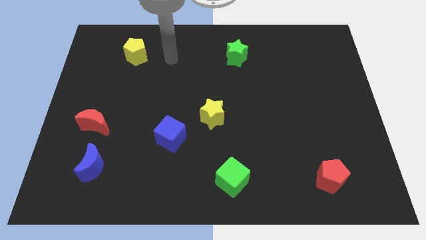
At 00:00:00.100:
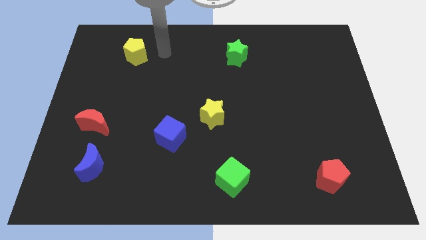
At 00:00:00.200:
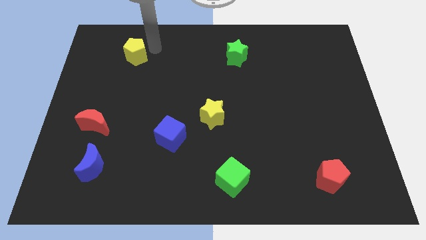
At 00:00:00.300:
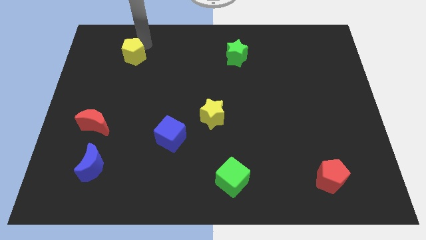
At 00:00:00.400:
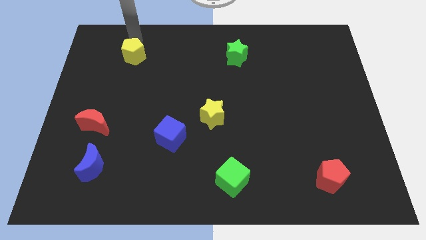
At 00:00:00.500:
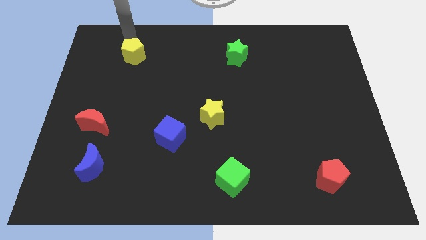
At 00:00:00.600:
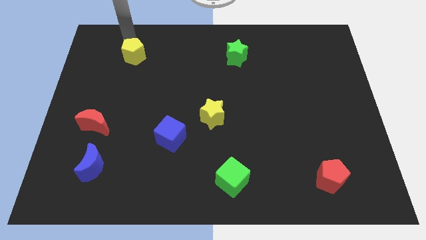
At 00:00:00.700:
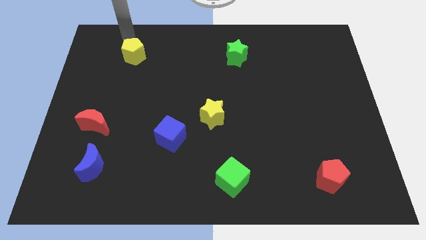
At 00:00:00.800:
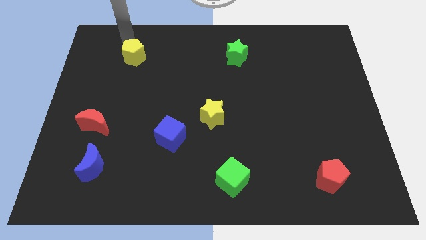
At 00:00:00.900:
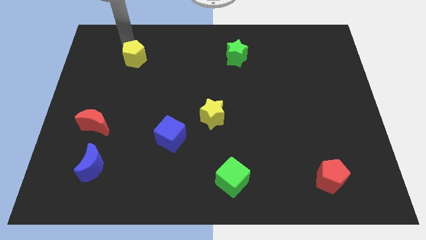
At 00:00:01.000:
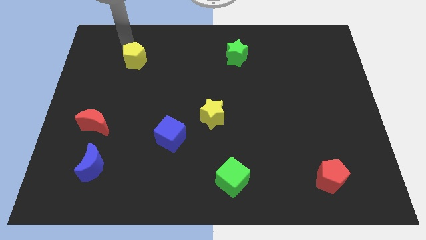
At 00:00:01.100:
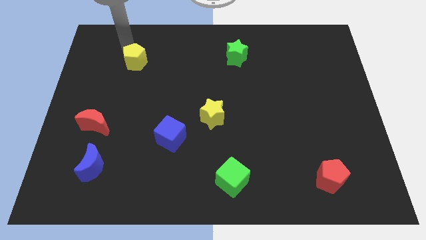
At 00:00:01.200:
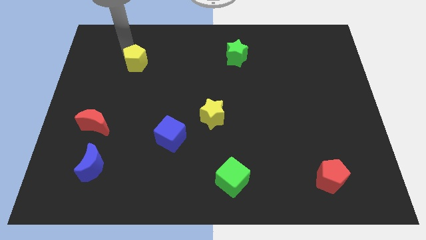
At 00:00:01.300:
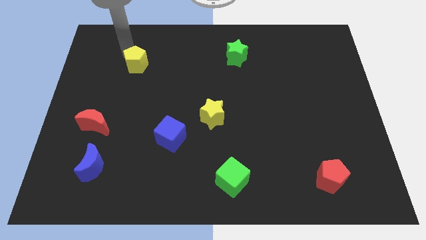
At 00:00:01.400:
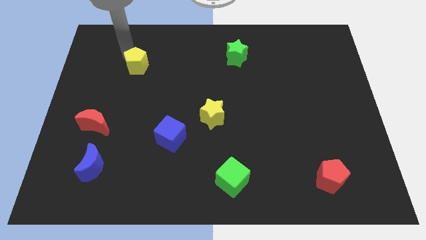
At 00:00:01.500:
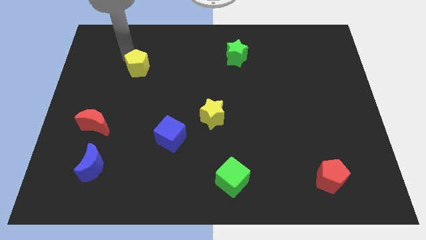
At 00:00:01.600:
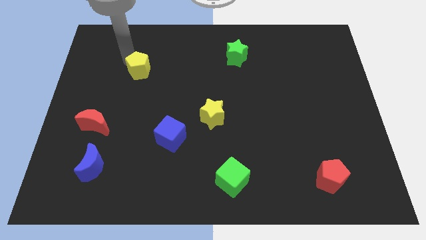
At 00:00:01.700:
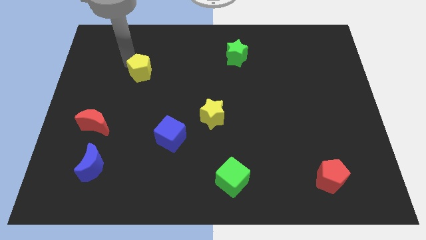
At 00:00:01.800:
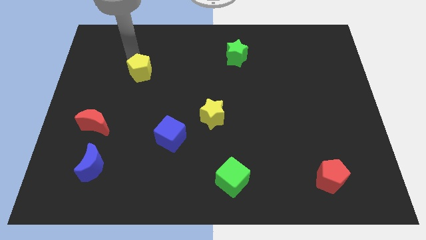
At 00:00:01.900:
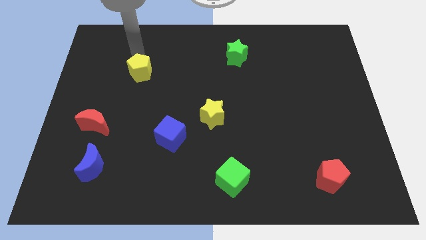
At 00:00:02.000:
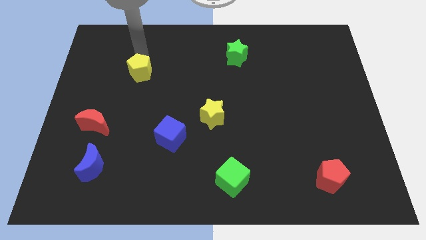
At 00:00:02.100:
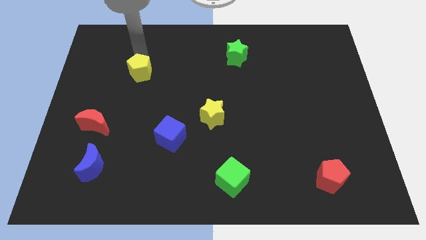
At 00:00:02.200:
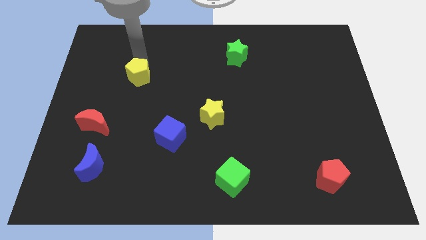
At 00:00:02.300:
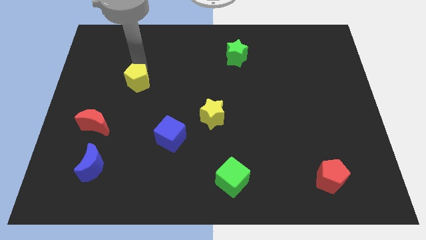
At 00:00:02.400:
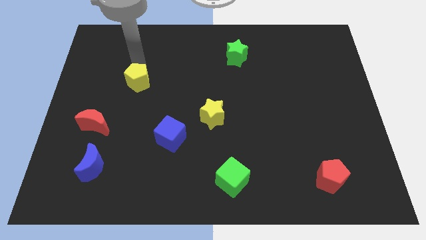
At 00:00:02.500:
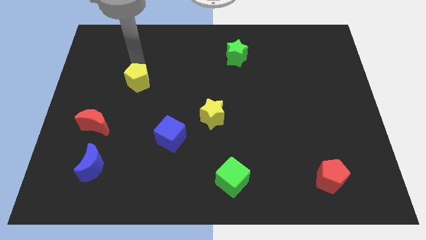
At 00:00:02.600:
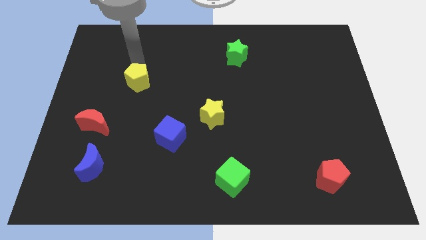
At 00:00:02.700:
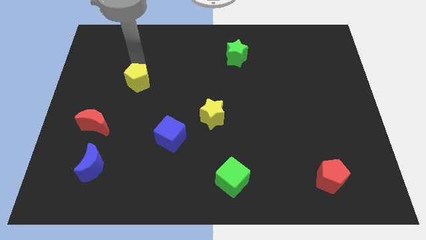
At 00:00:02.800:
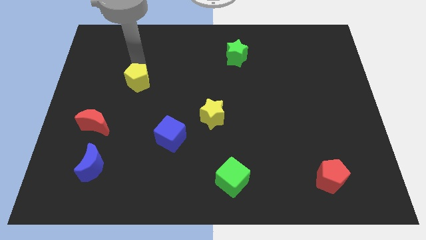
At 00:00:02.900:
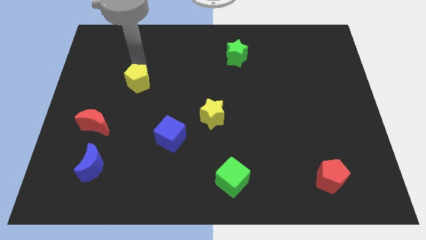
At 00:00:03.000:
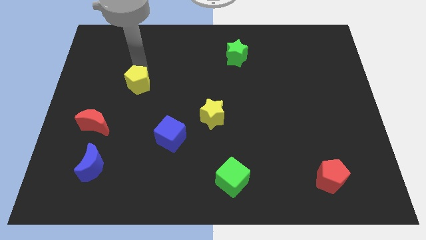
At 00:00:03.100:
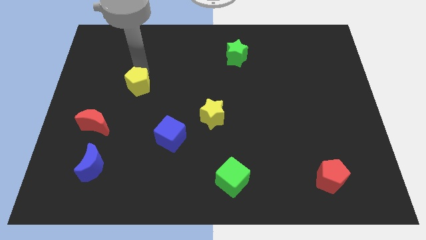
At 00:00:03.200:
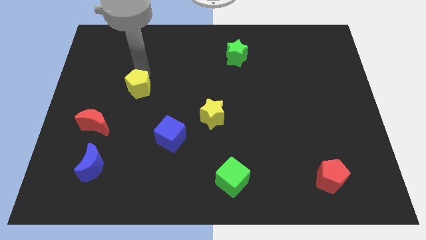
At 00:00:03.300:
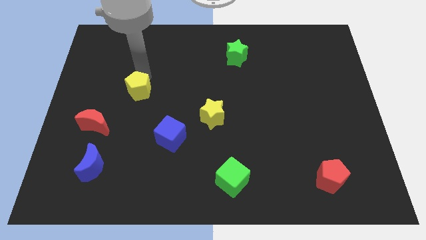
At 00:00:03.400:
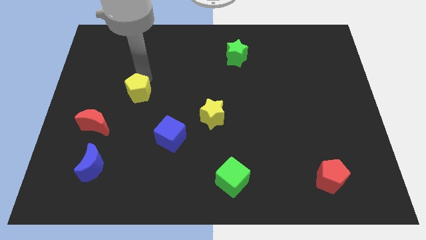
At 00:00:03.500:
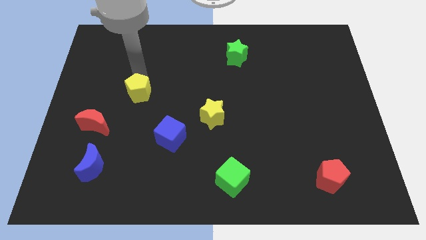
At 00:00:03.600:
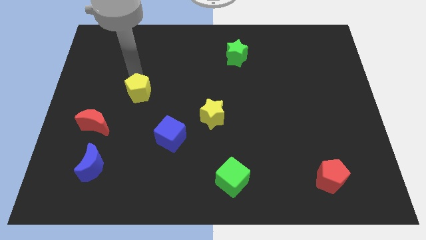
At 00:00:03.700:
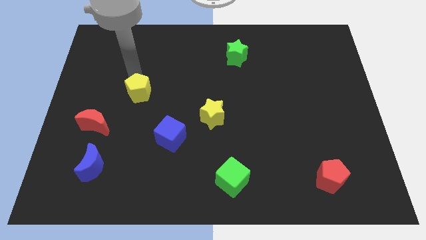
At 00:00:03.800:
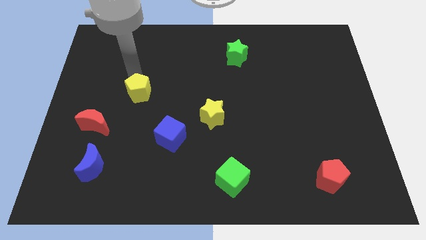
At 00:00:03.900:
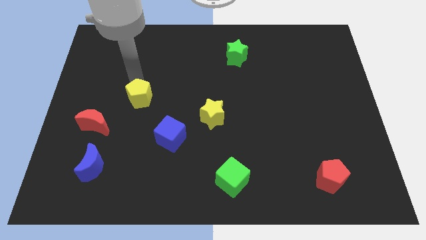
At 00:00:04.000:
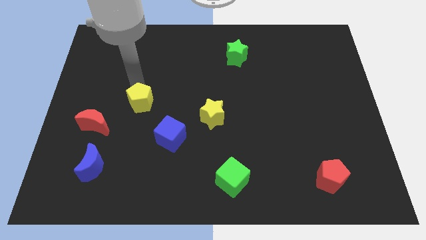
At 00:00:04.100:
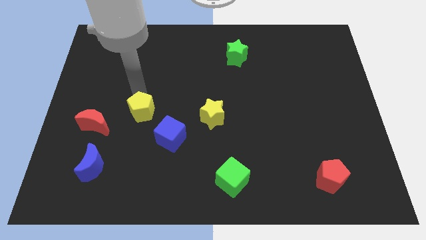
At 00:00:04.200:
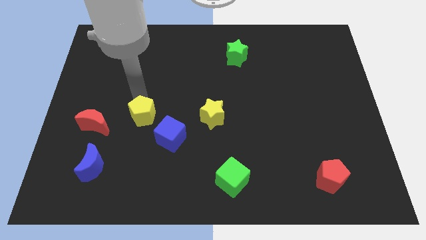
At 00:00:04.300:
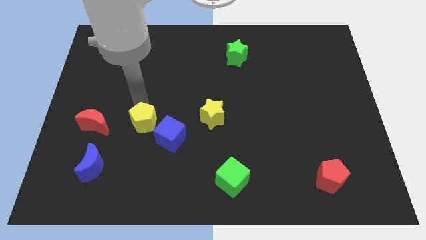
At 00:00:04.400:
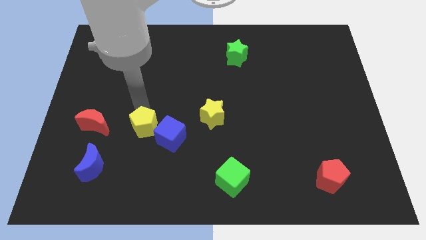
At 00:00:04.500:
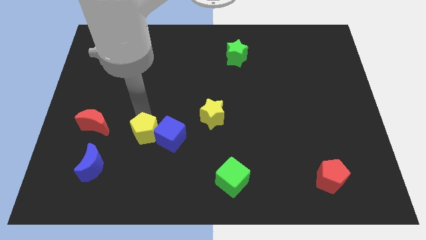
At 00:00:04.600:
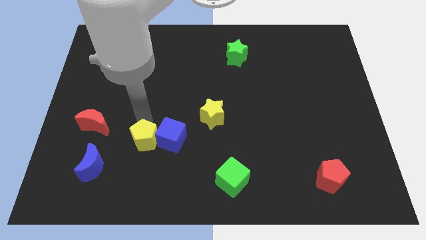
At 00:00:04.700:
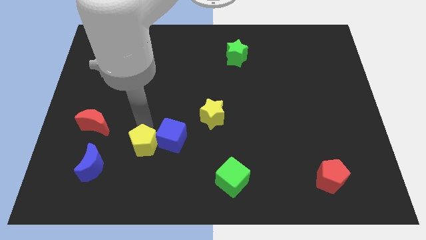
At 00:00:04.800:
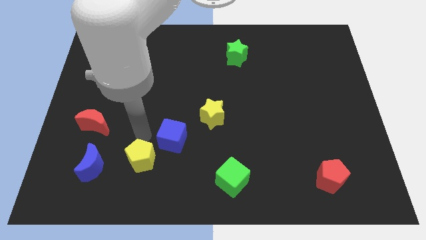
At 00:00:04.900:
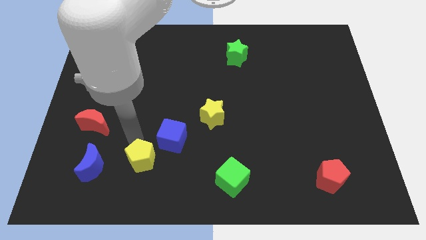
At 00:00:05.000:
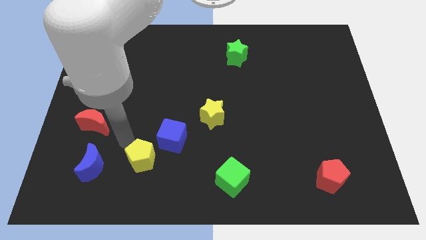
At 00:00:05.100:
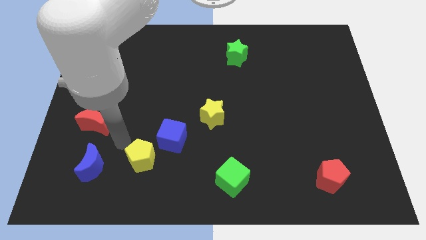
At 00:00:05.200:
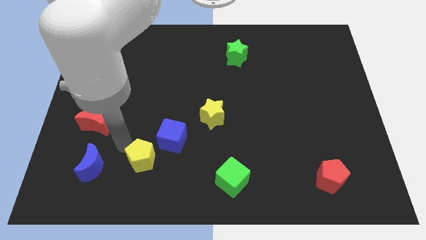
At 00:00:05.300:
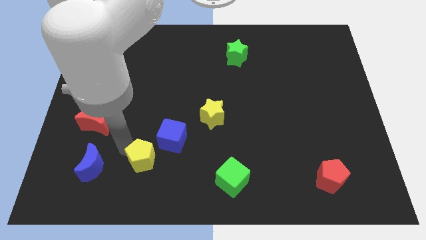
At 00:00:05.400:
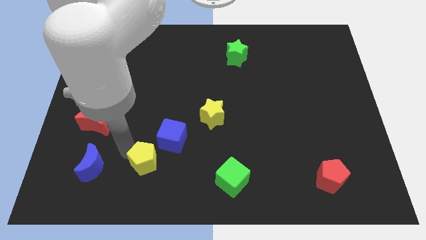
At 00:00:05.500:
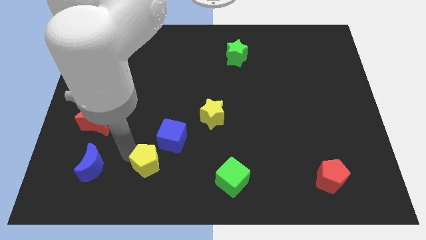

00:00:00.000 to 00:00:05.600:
slide the yellow pentagon to the bottom of the blue cube

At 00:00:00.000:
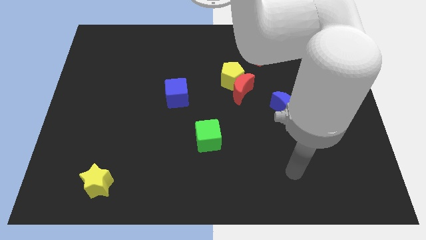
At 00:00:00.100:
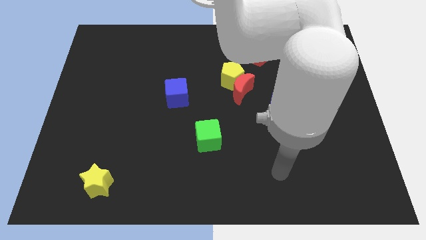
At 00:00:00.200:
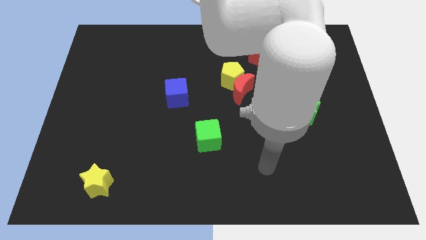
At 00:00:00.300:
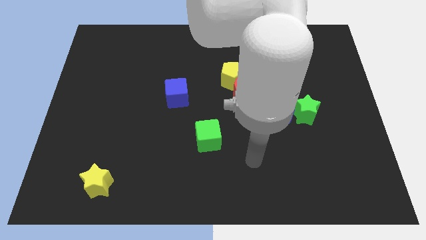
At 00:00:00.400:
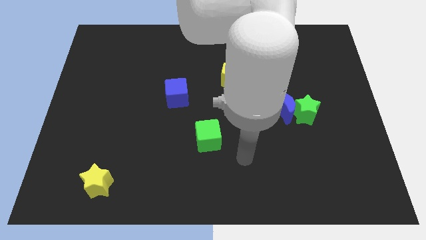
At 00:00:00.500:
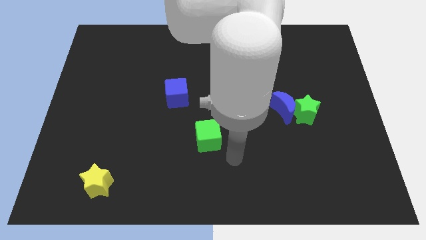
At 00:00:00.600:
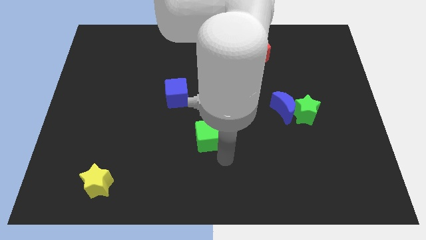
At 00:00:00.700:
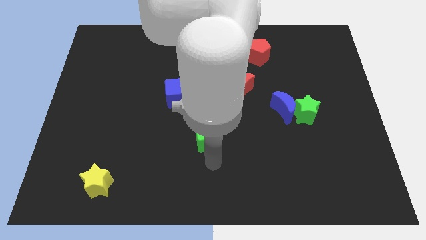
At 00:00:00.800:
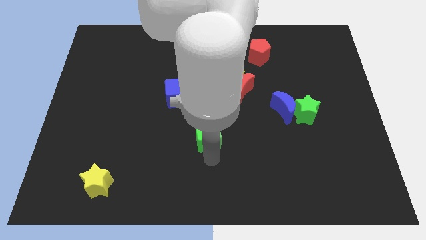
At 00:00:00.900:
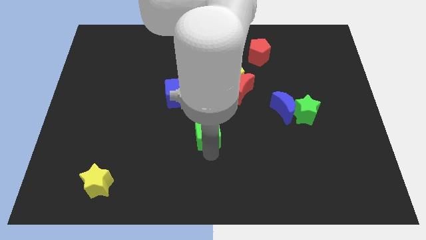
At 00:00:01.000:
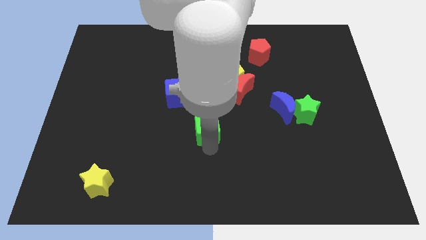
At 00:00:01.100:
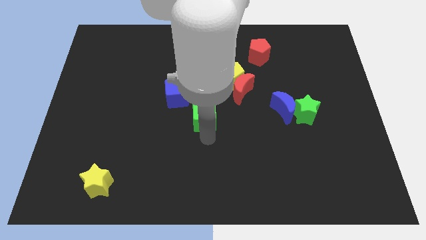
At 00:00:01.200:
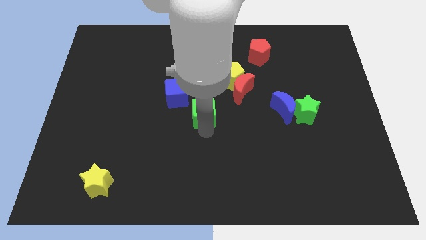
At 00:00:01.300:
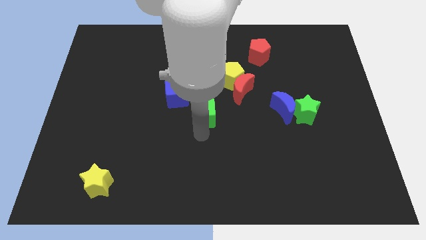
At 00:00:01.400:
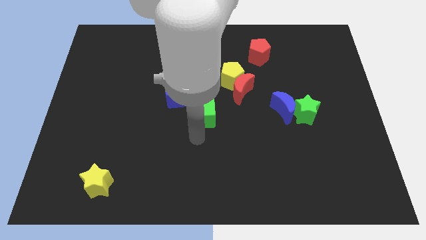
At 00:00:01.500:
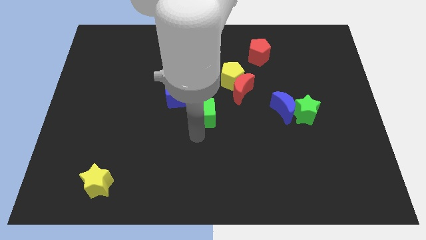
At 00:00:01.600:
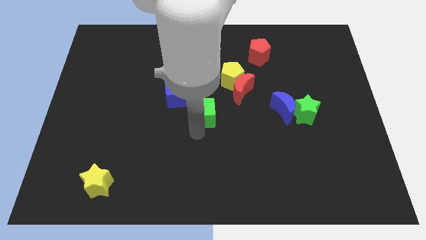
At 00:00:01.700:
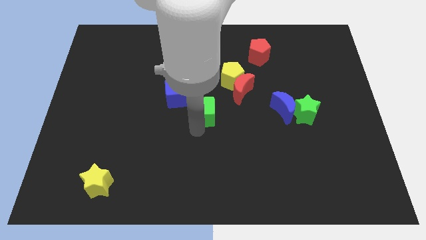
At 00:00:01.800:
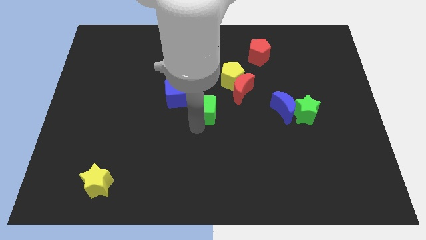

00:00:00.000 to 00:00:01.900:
slide the green cube to the bottom left side of the yellow pentagon
